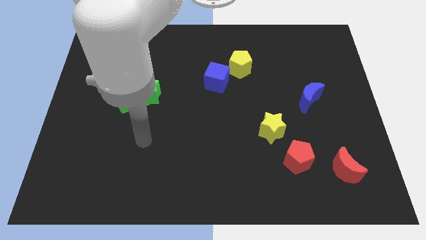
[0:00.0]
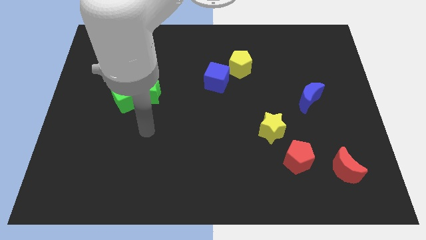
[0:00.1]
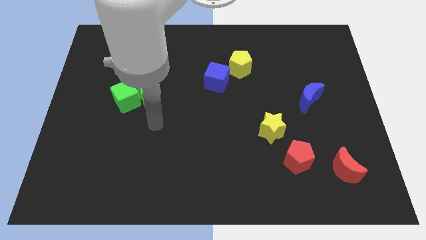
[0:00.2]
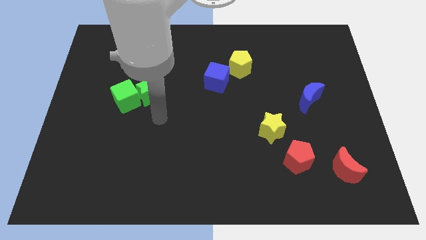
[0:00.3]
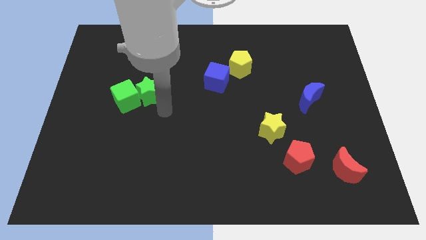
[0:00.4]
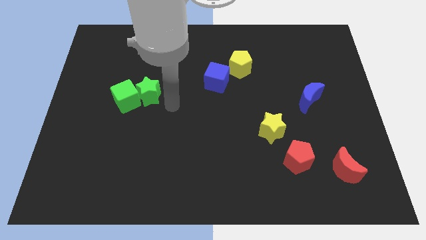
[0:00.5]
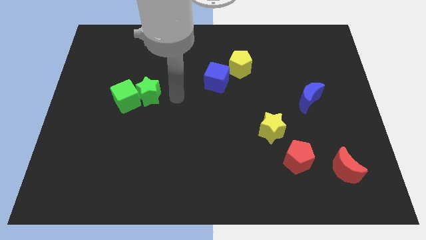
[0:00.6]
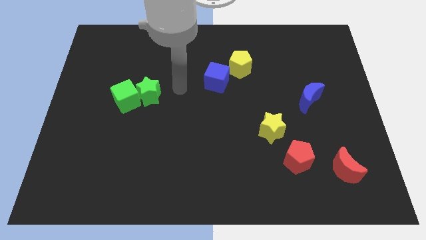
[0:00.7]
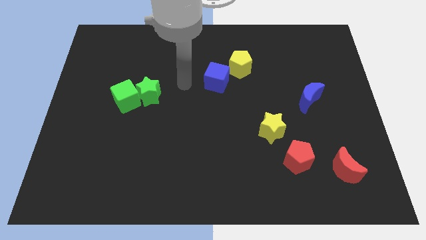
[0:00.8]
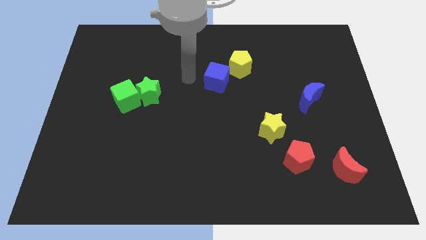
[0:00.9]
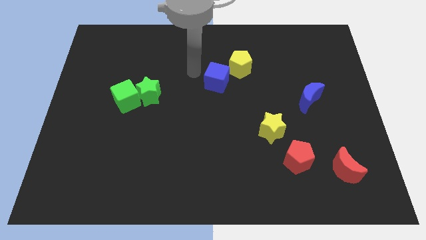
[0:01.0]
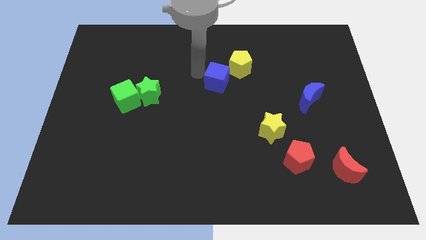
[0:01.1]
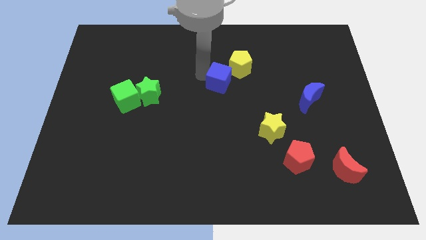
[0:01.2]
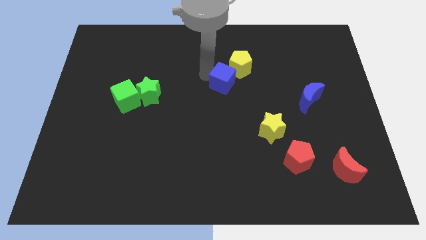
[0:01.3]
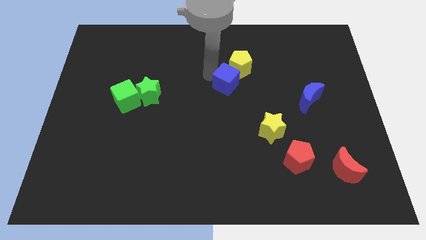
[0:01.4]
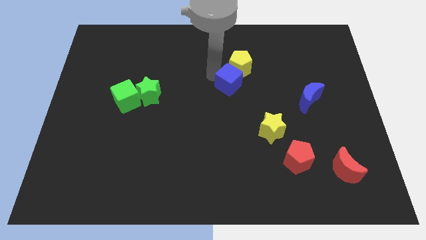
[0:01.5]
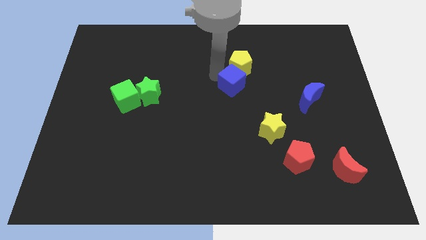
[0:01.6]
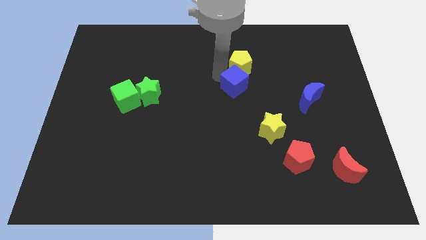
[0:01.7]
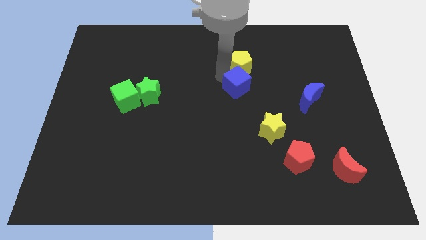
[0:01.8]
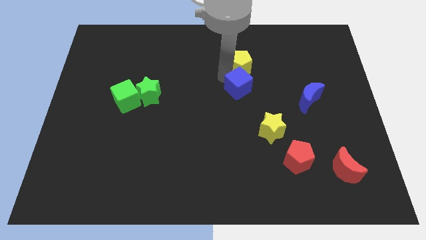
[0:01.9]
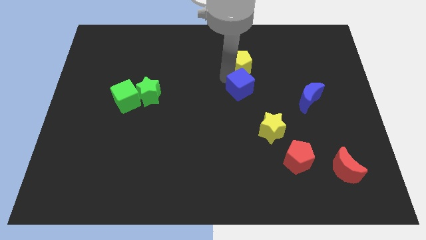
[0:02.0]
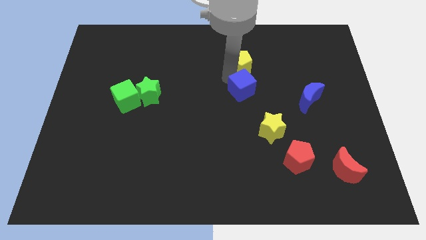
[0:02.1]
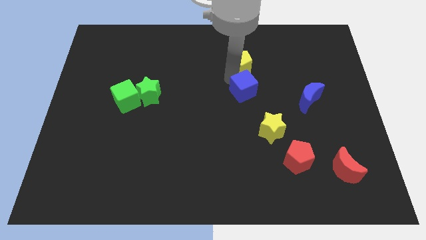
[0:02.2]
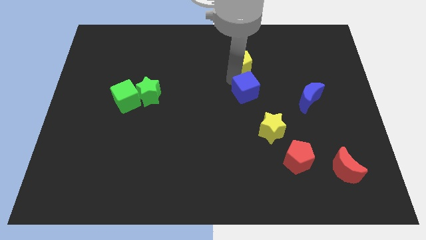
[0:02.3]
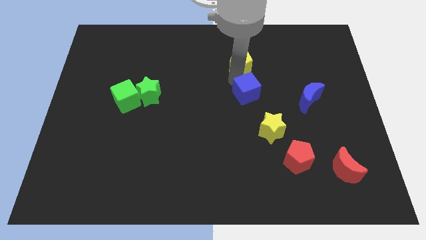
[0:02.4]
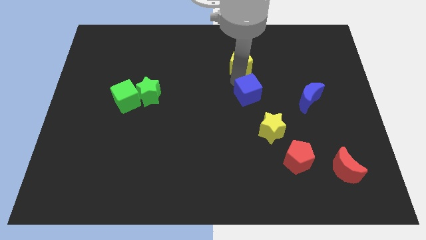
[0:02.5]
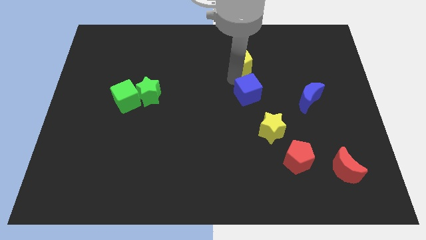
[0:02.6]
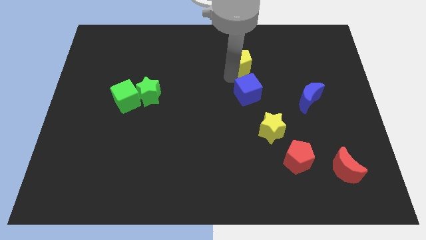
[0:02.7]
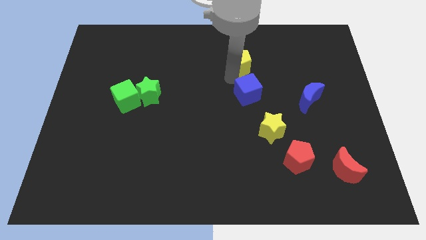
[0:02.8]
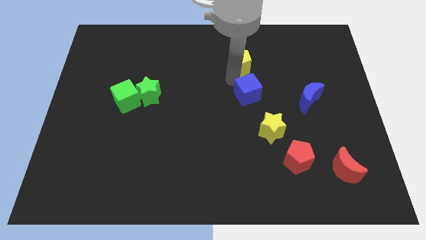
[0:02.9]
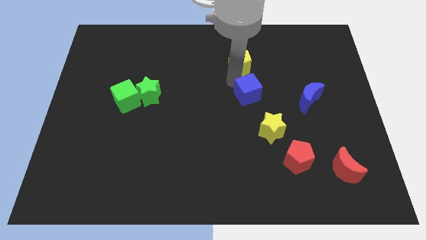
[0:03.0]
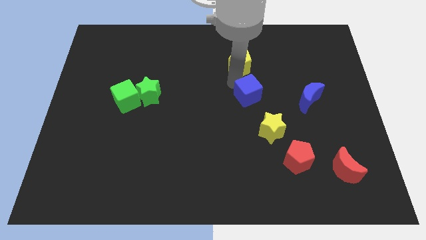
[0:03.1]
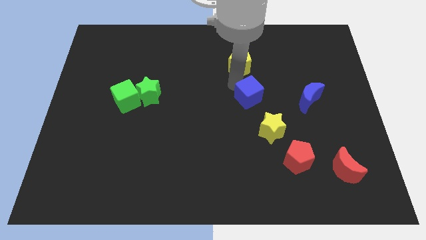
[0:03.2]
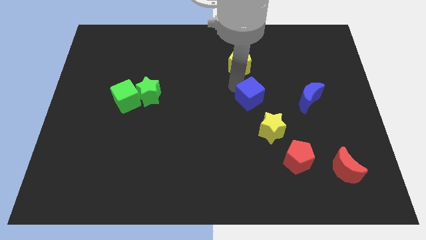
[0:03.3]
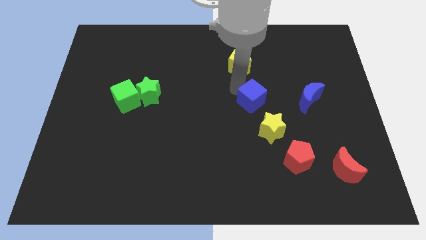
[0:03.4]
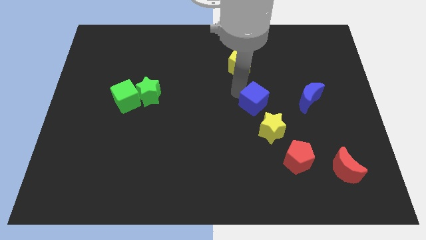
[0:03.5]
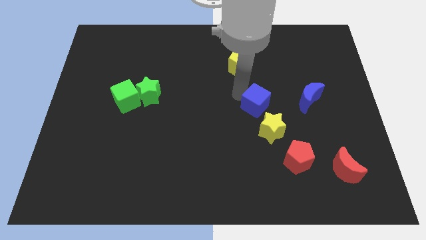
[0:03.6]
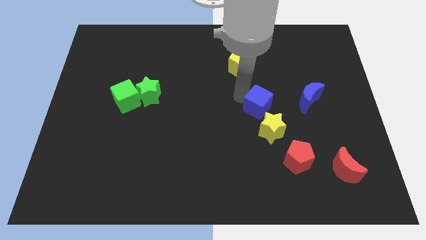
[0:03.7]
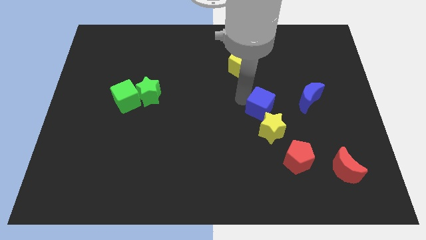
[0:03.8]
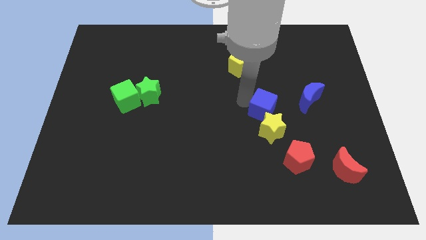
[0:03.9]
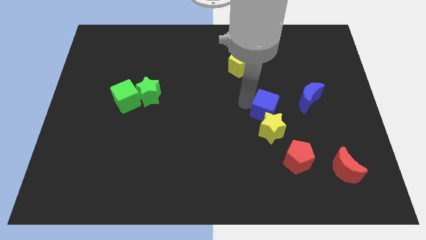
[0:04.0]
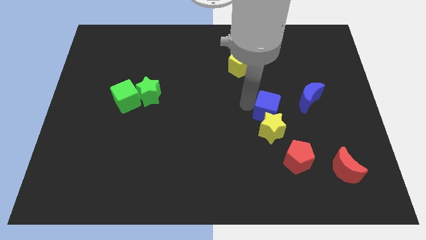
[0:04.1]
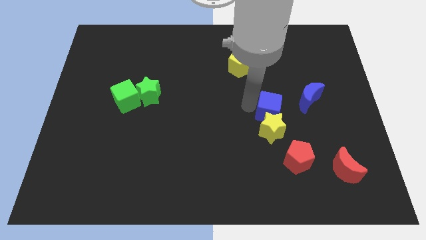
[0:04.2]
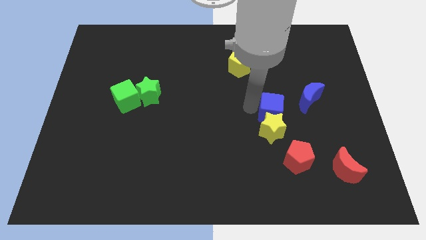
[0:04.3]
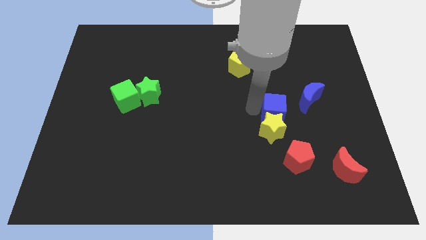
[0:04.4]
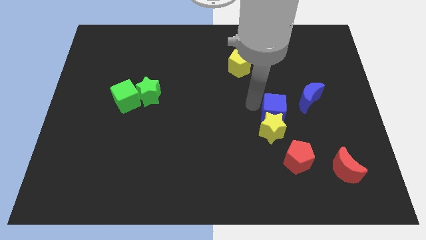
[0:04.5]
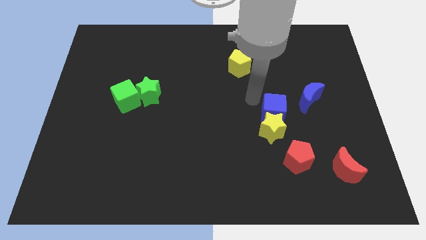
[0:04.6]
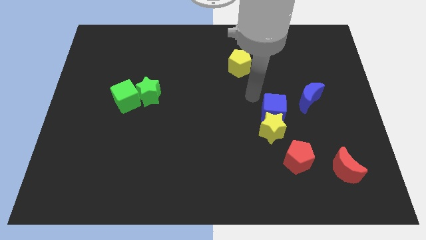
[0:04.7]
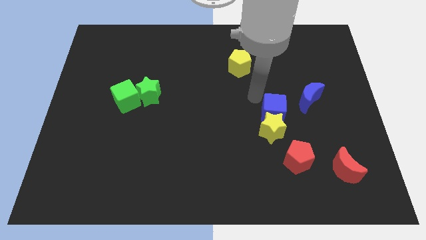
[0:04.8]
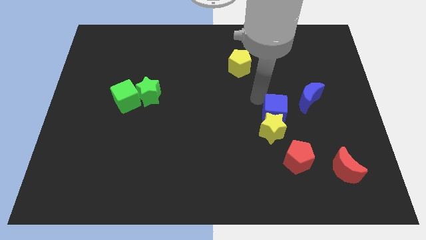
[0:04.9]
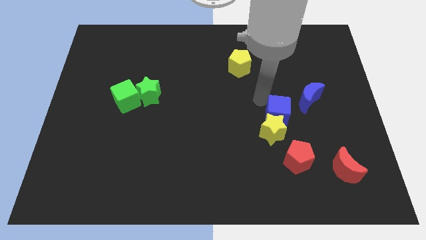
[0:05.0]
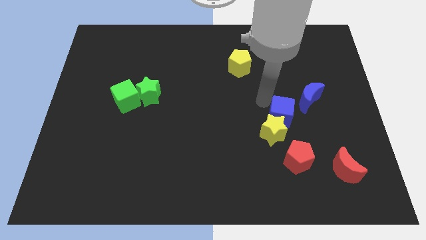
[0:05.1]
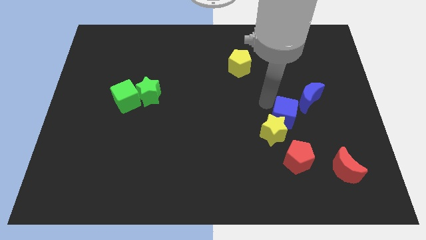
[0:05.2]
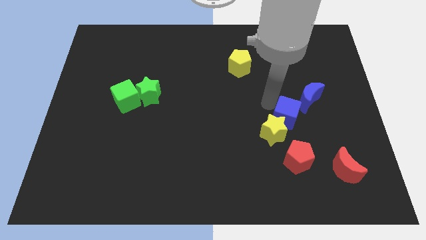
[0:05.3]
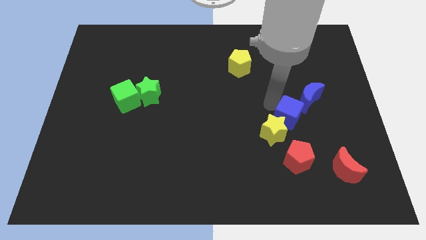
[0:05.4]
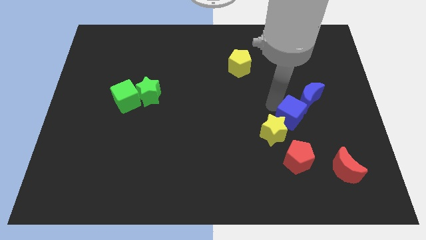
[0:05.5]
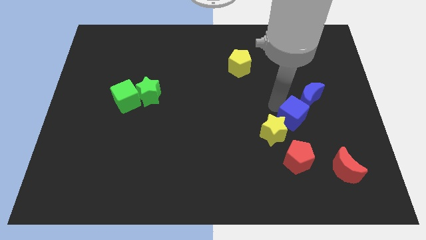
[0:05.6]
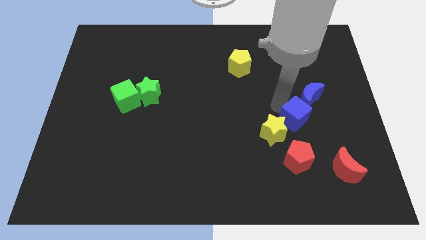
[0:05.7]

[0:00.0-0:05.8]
move the blue cube down and right

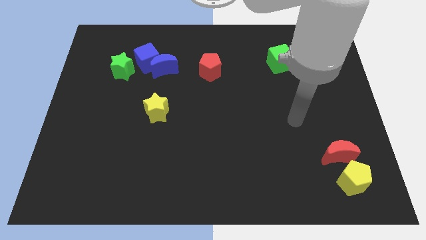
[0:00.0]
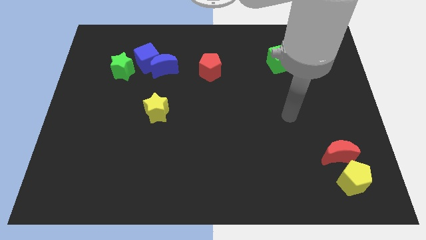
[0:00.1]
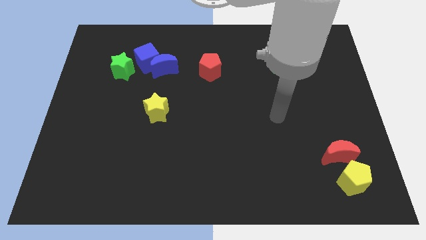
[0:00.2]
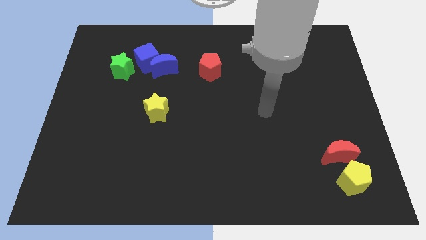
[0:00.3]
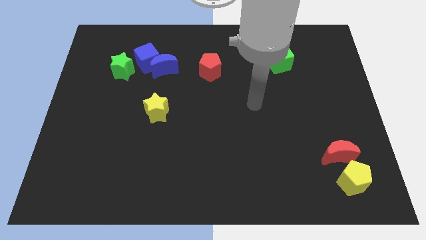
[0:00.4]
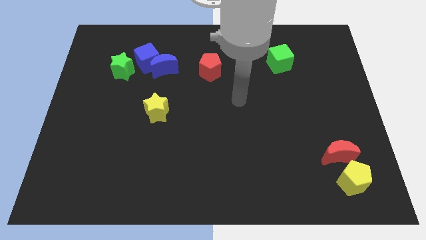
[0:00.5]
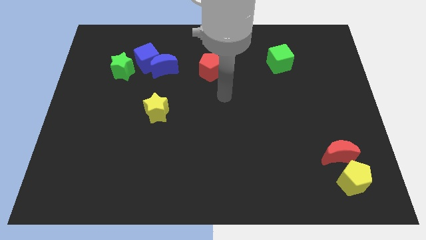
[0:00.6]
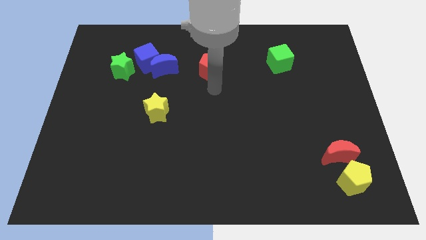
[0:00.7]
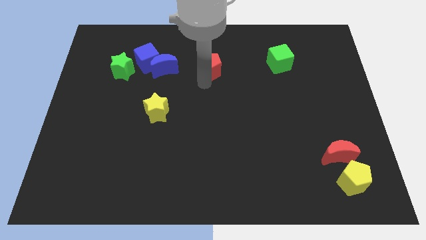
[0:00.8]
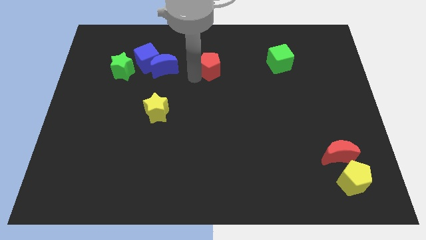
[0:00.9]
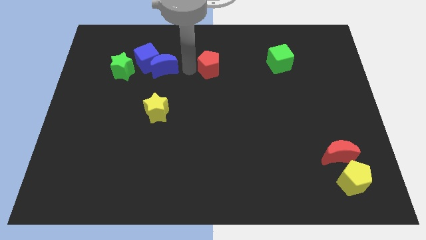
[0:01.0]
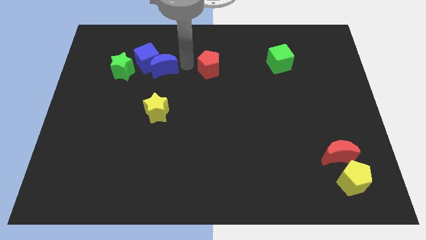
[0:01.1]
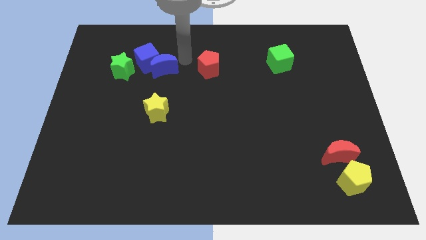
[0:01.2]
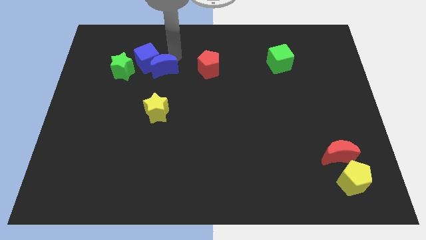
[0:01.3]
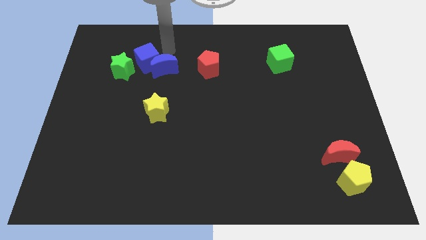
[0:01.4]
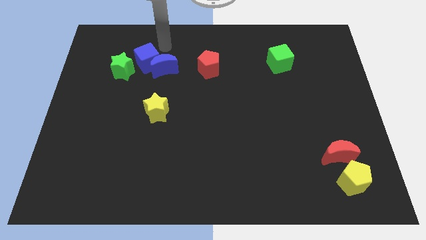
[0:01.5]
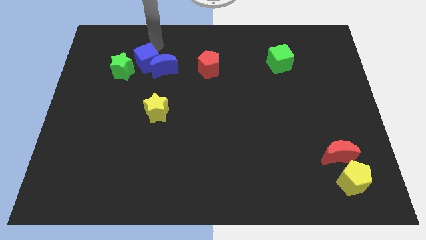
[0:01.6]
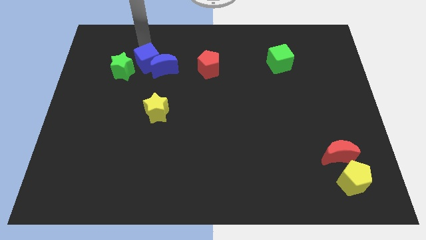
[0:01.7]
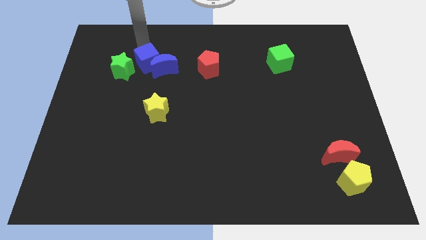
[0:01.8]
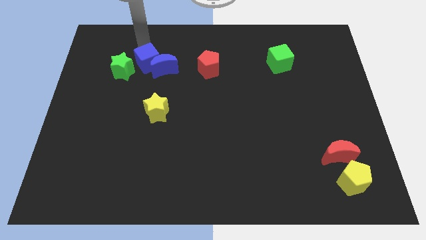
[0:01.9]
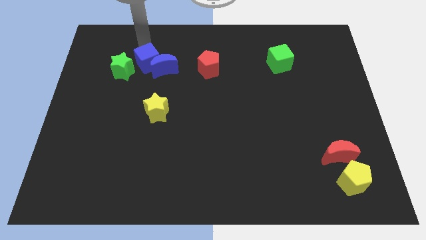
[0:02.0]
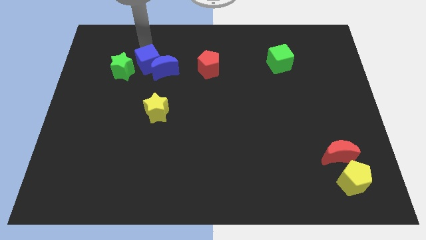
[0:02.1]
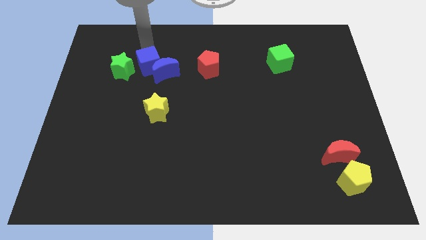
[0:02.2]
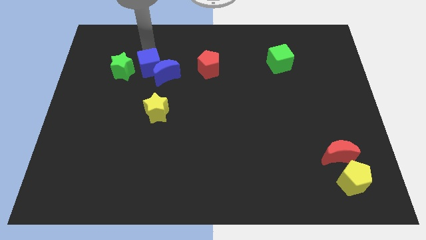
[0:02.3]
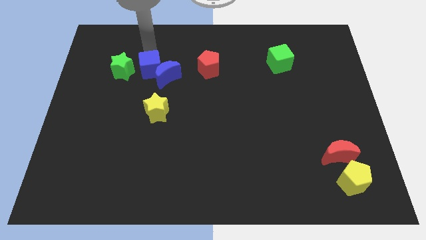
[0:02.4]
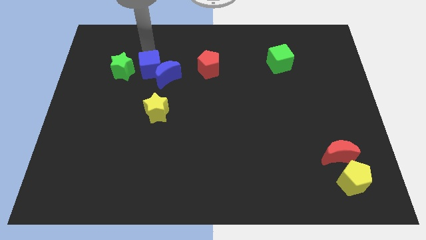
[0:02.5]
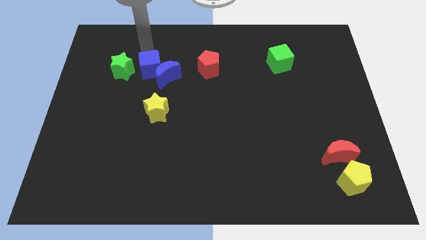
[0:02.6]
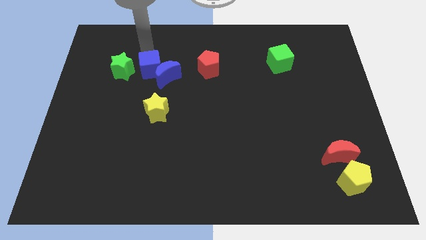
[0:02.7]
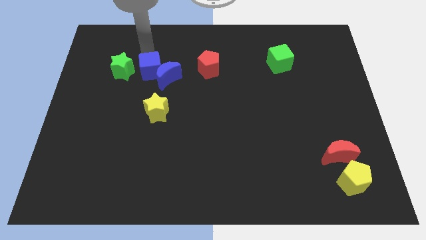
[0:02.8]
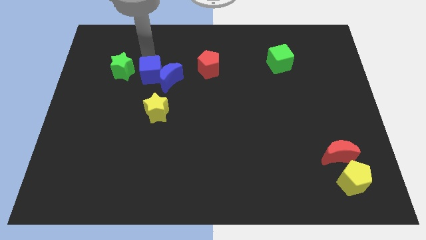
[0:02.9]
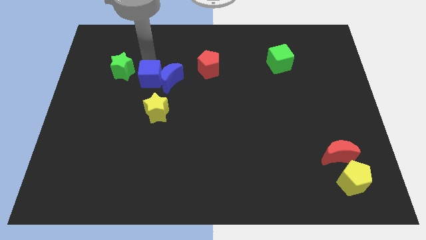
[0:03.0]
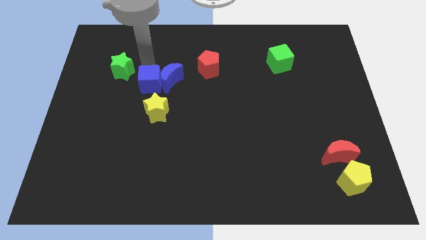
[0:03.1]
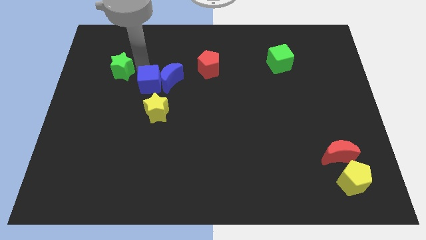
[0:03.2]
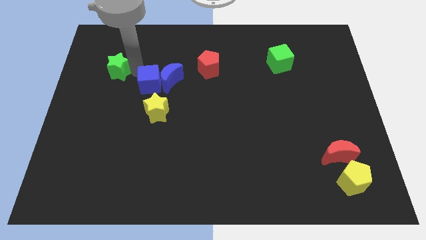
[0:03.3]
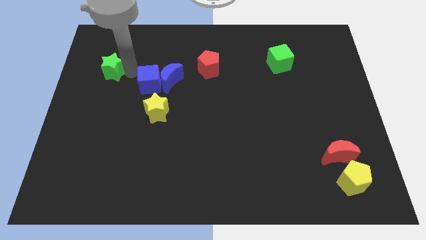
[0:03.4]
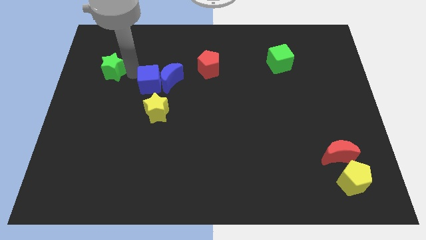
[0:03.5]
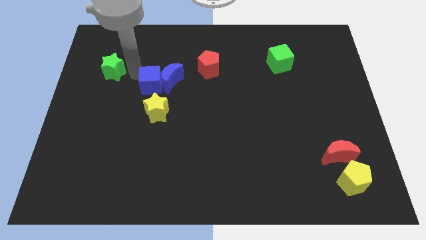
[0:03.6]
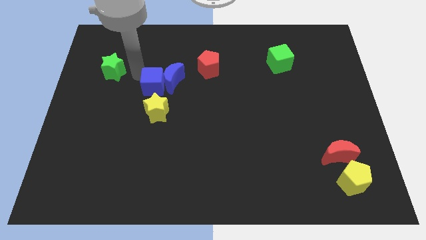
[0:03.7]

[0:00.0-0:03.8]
slide the blue cube a little down and right
